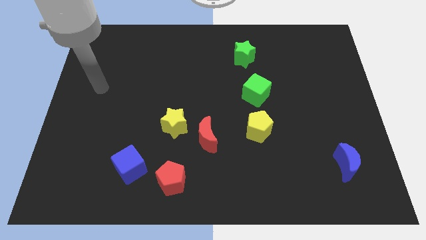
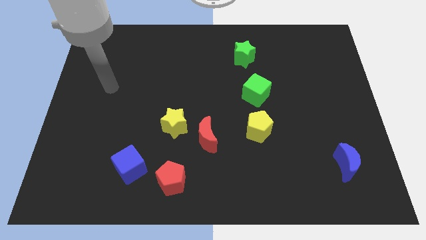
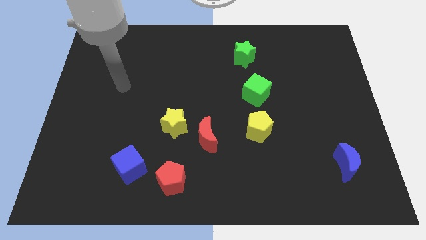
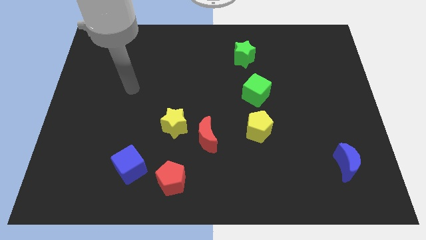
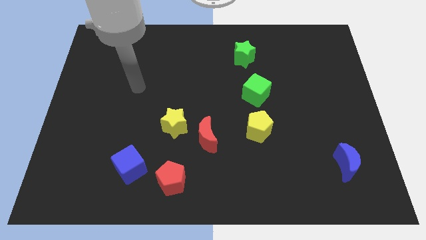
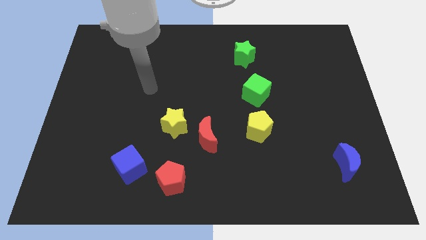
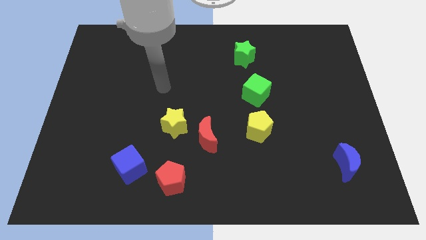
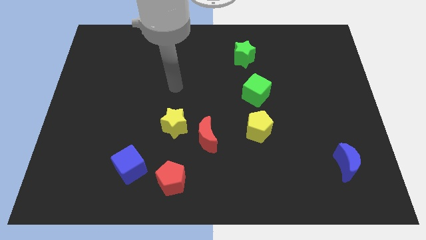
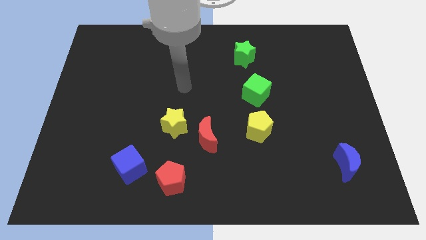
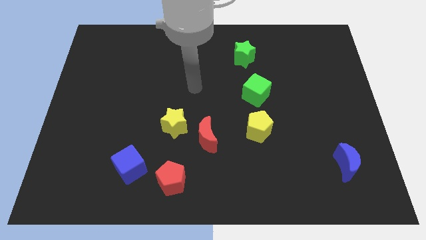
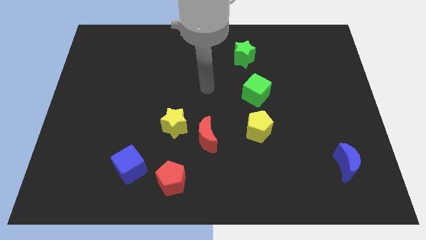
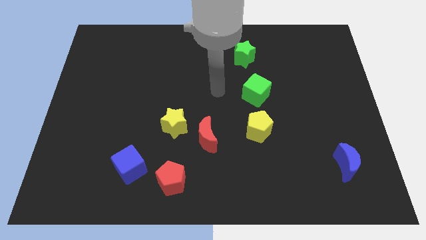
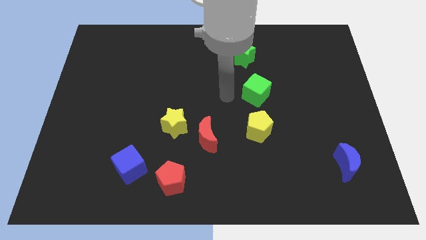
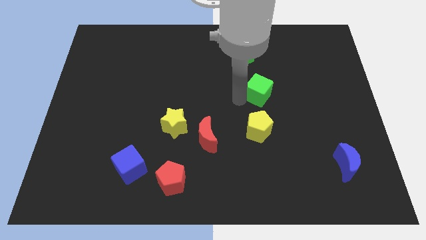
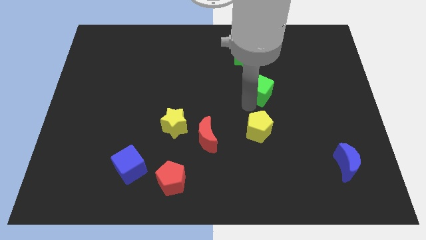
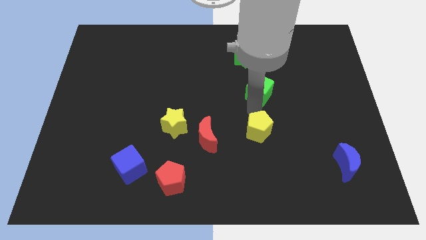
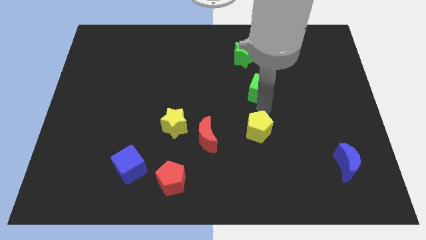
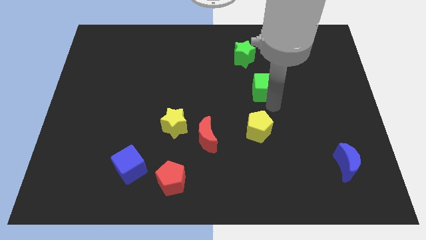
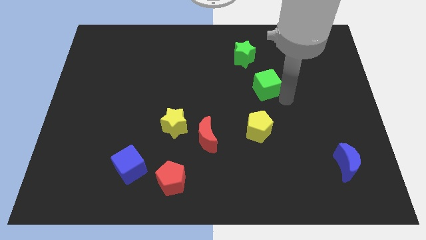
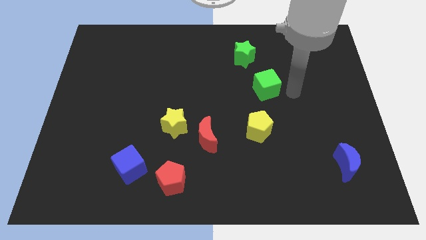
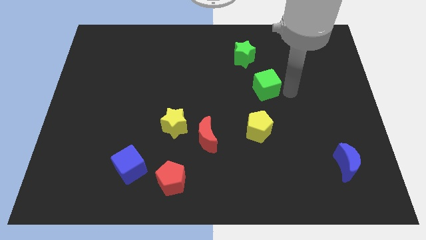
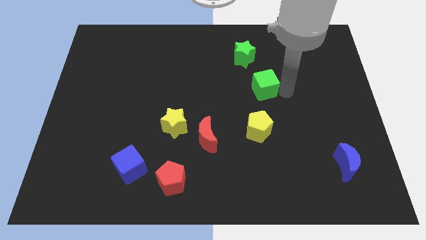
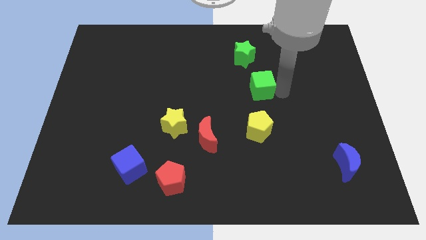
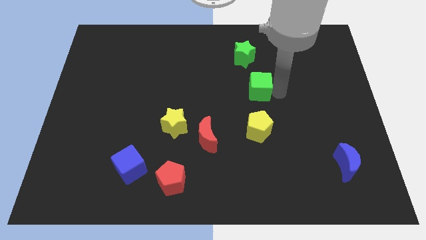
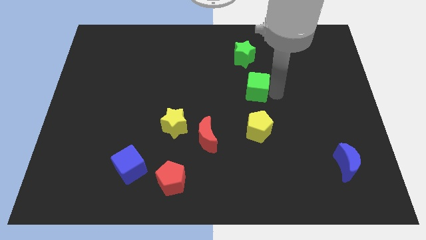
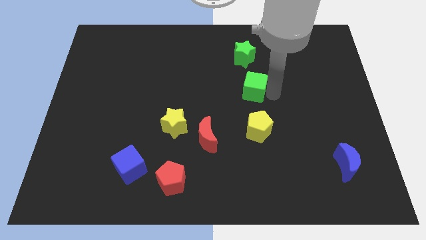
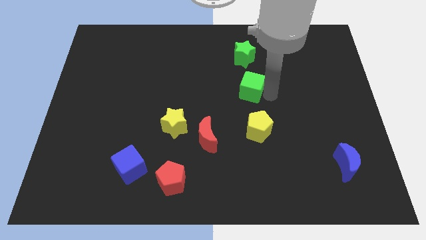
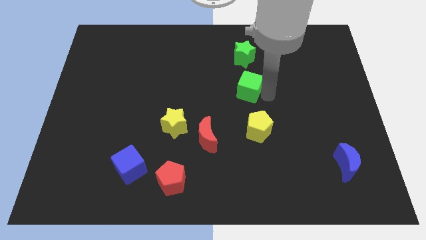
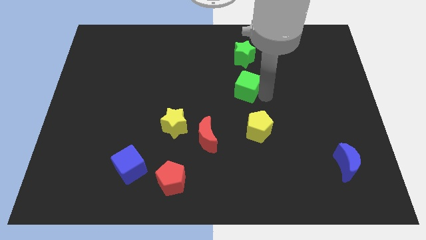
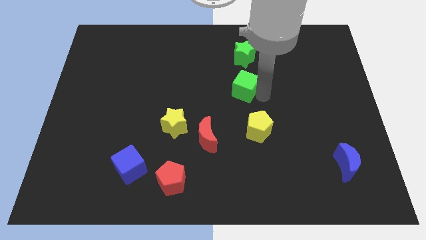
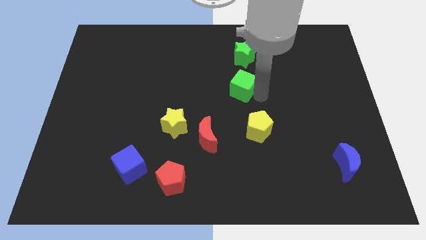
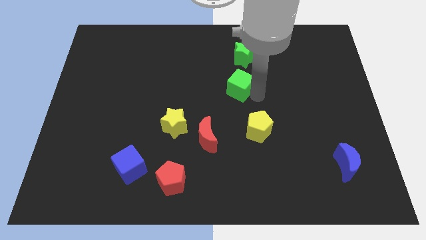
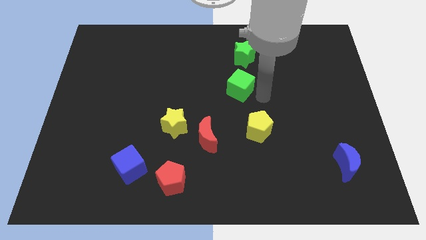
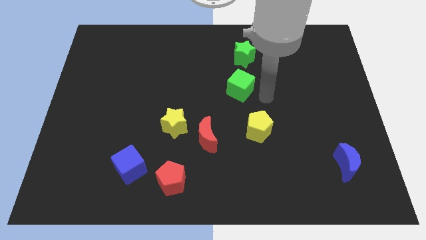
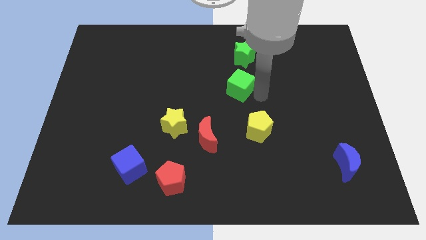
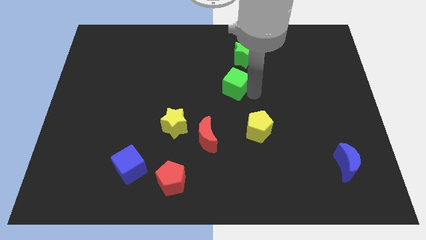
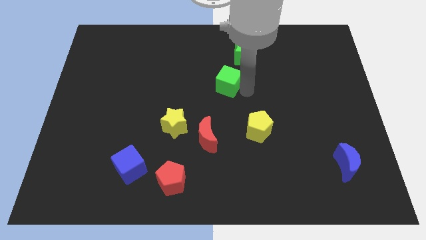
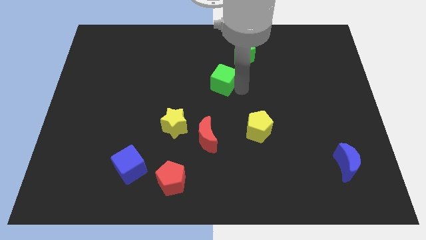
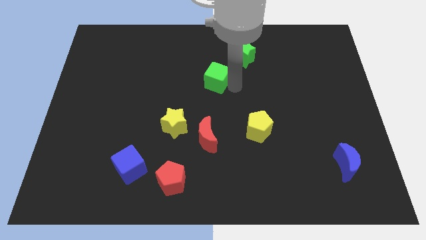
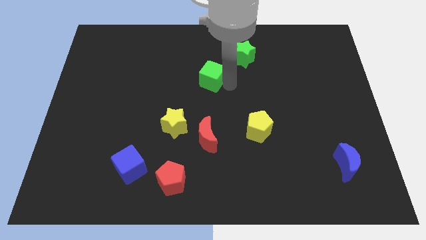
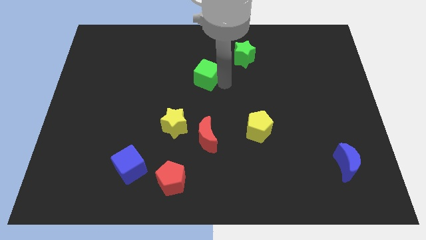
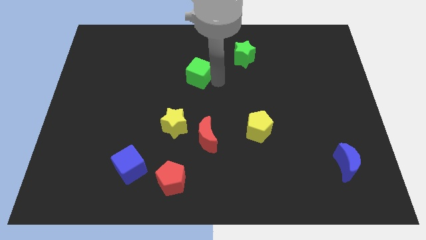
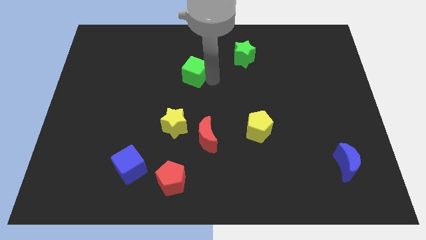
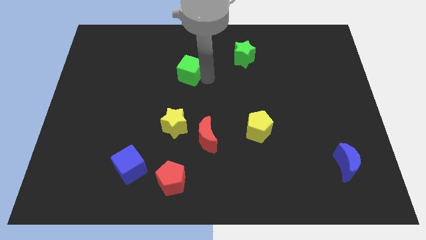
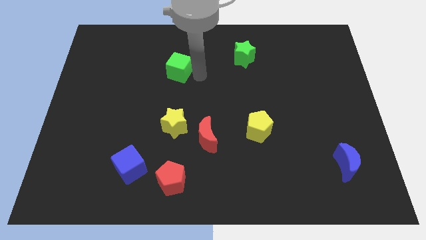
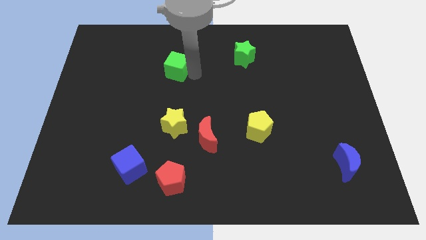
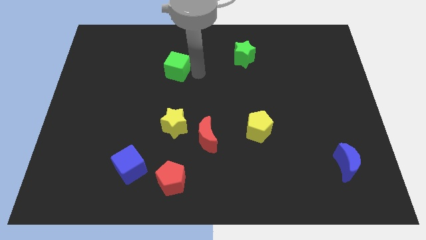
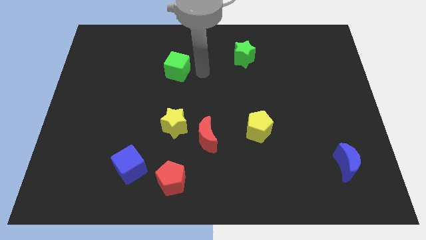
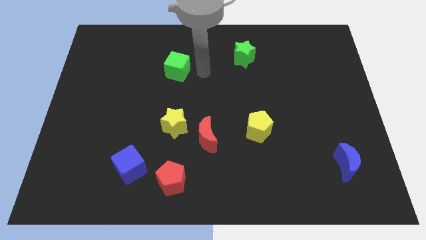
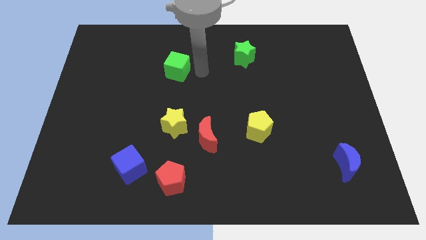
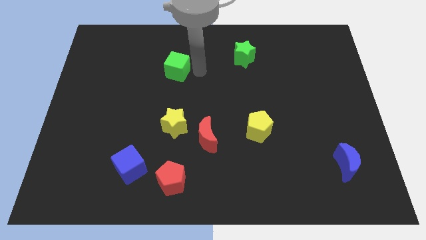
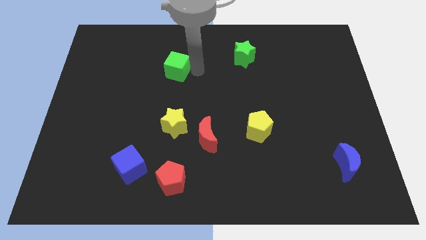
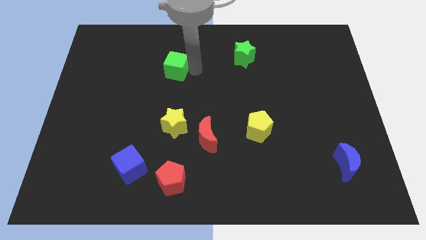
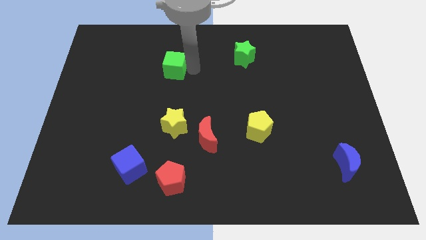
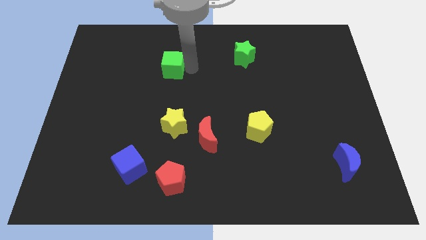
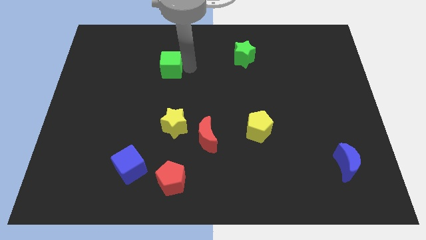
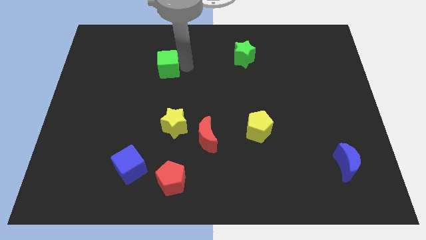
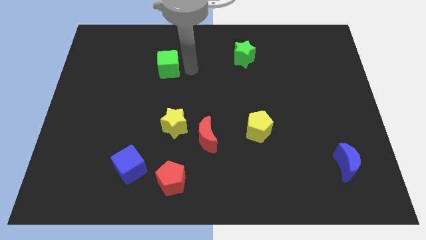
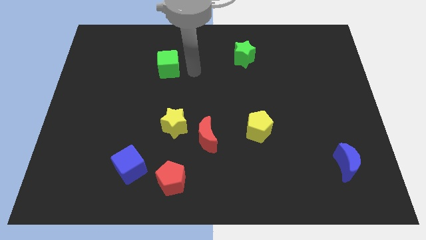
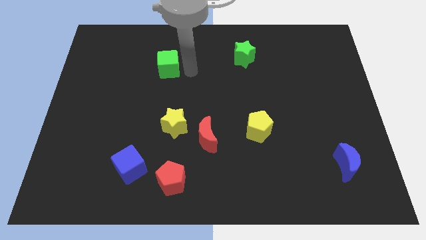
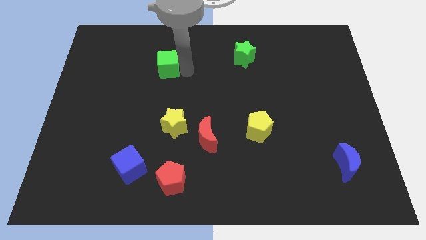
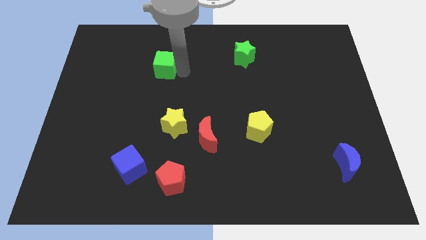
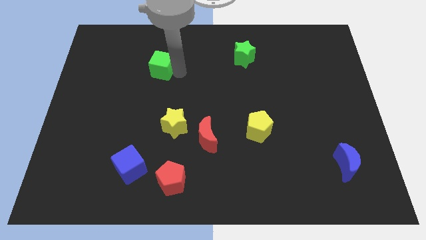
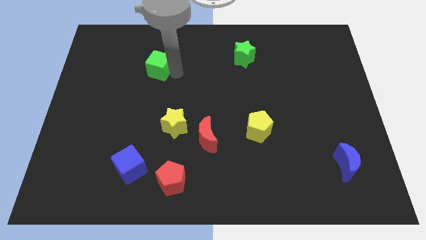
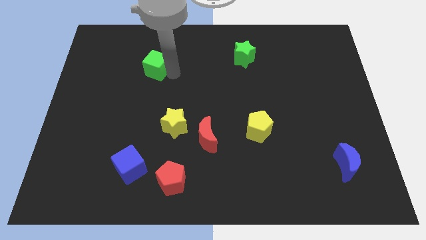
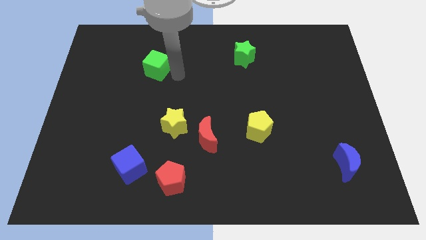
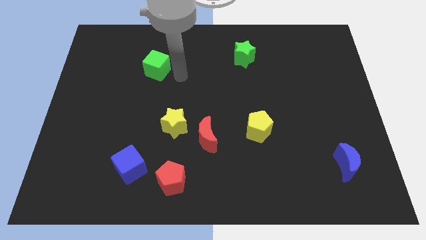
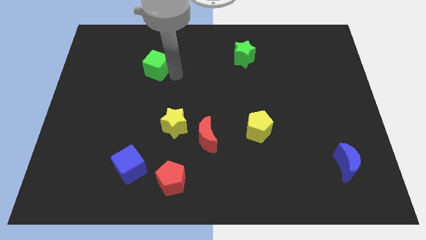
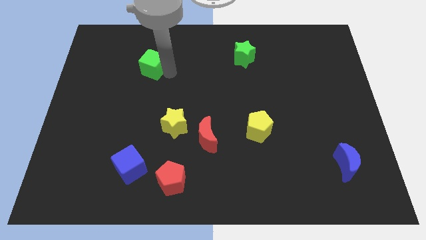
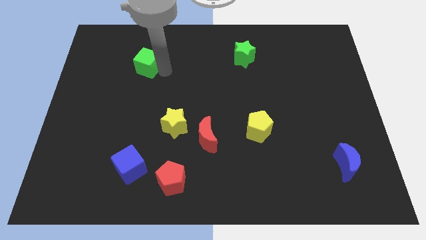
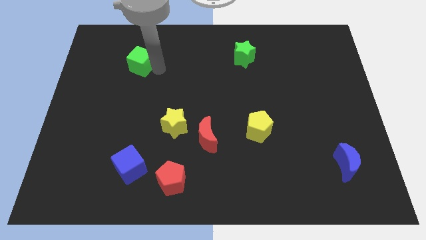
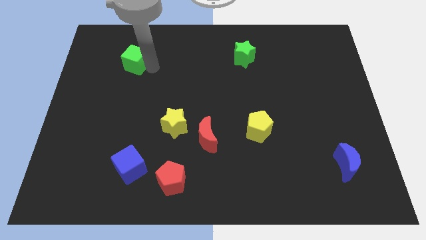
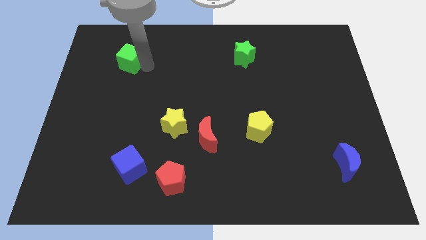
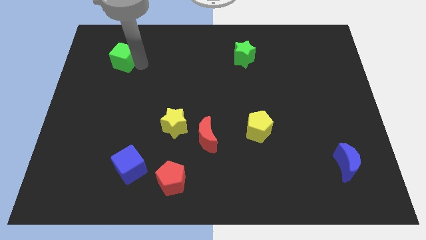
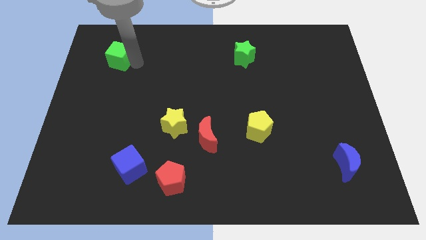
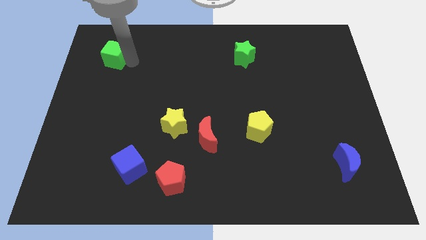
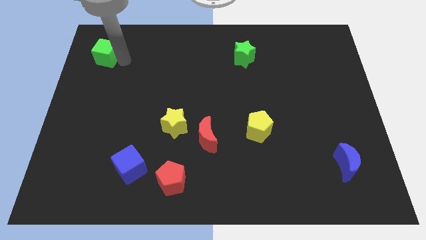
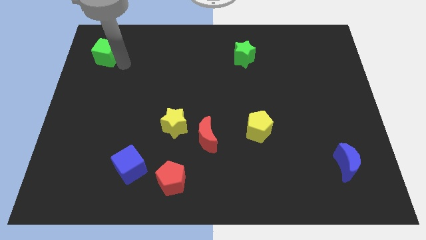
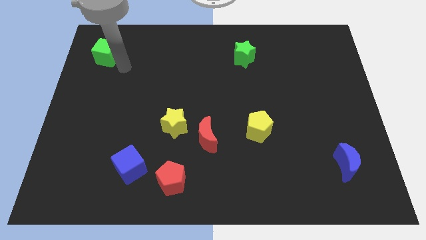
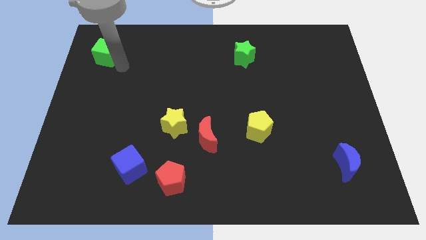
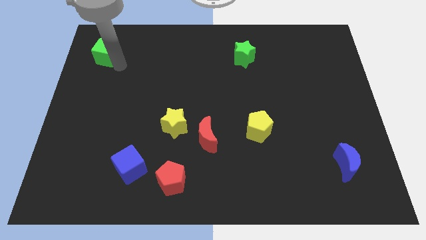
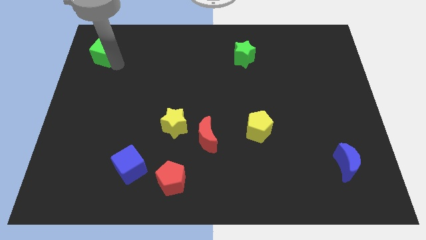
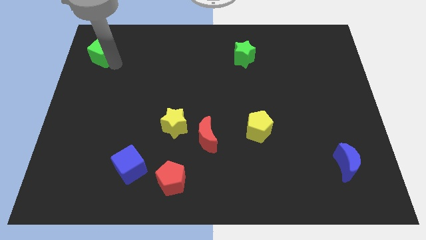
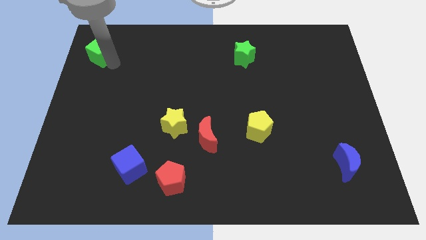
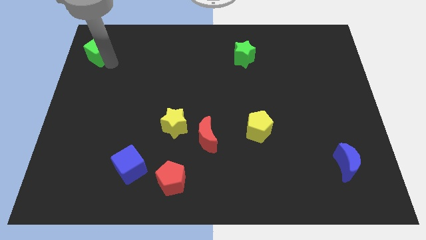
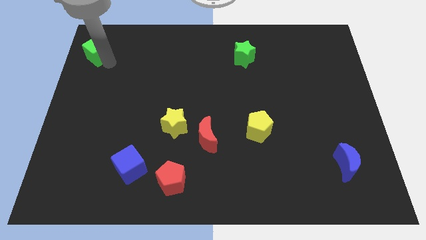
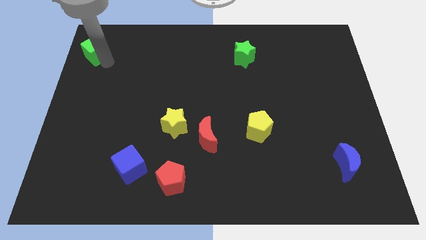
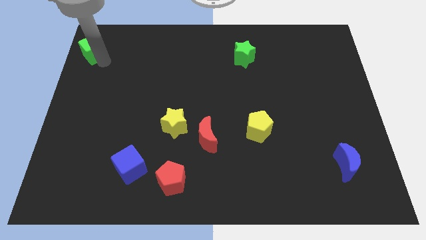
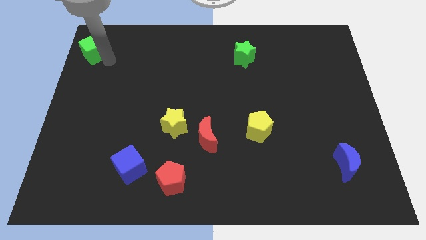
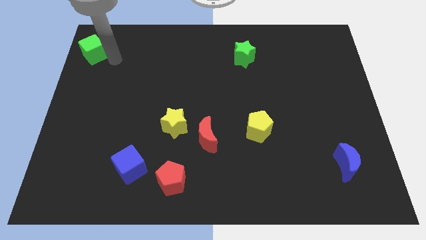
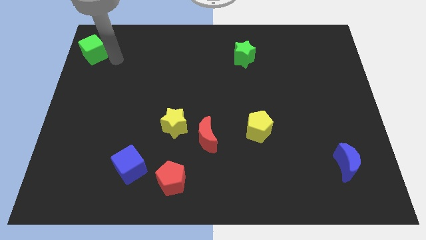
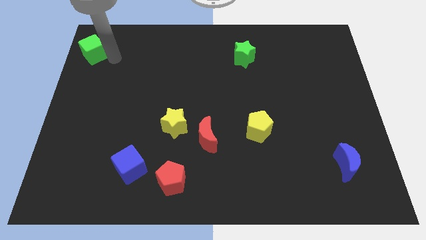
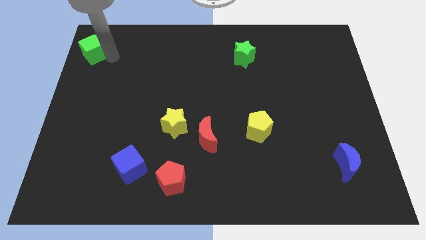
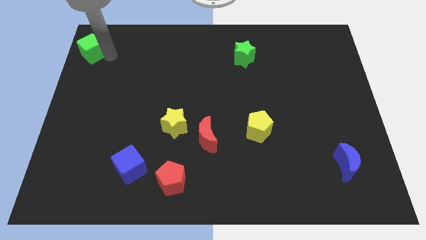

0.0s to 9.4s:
put the green cube to the top left corner
